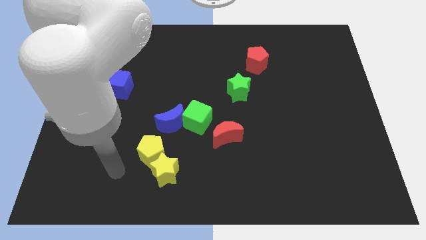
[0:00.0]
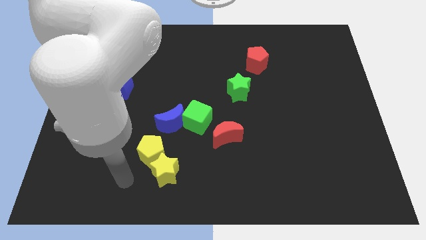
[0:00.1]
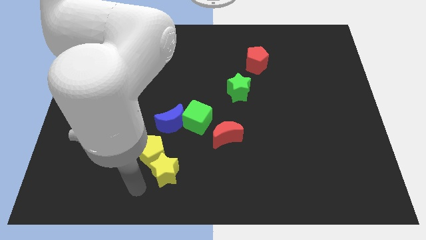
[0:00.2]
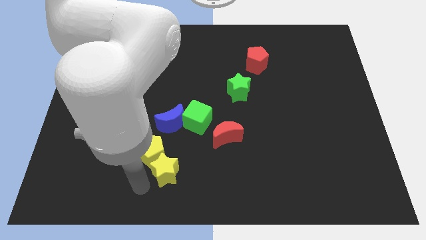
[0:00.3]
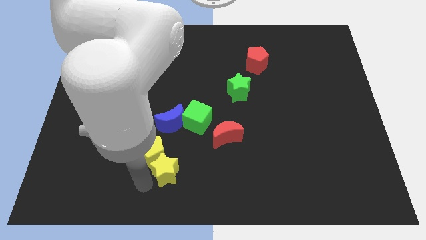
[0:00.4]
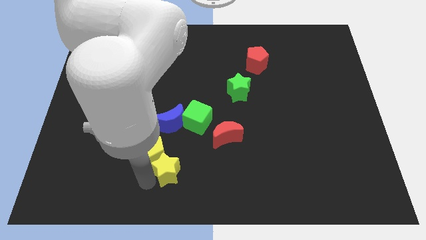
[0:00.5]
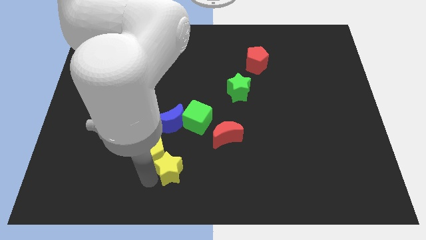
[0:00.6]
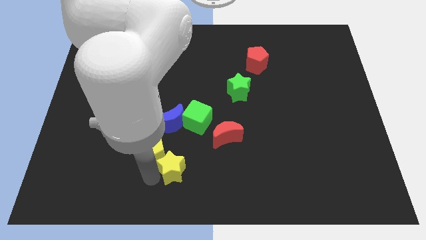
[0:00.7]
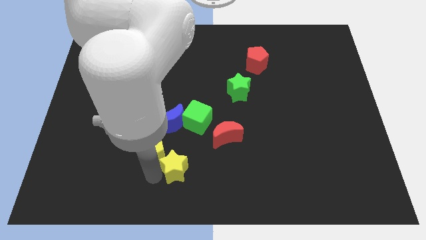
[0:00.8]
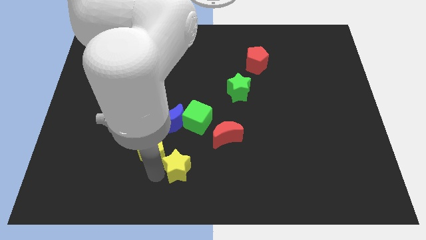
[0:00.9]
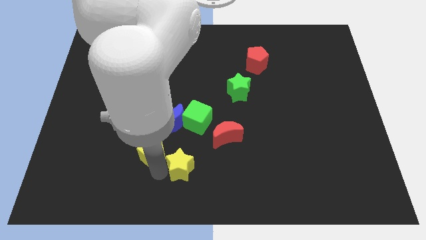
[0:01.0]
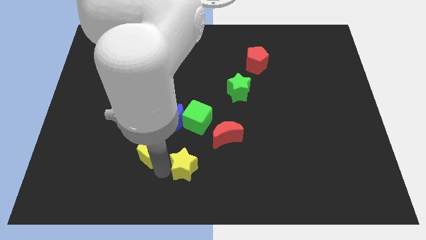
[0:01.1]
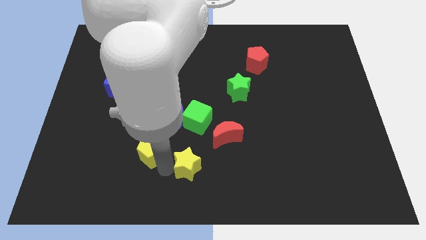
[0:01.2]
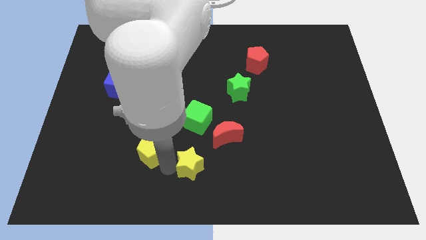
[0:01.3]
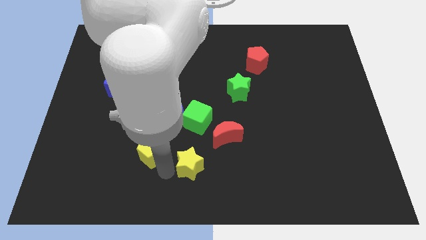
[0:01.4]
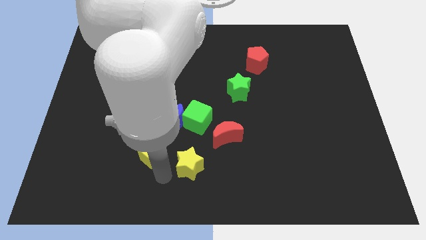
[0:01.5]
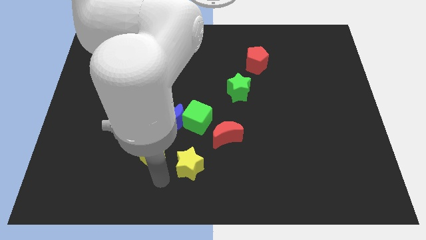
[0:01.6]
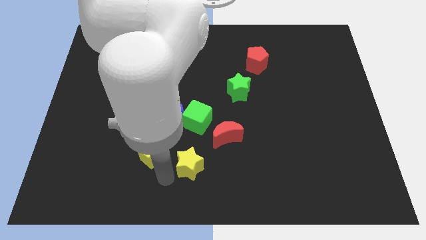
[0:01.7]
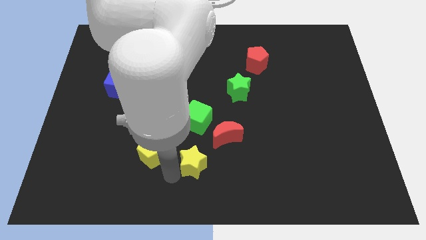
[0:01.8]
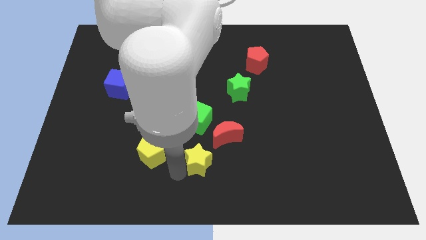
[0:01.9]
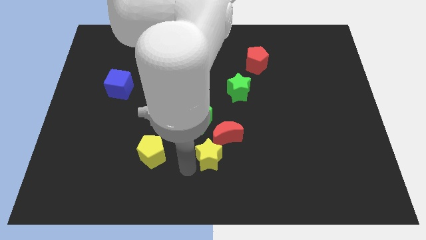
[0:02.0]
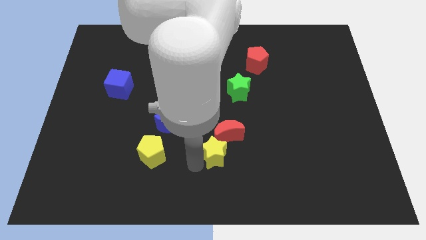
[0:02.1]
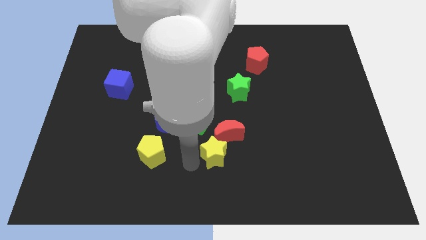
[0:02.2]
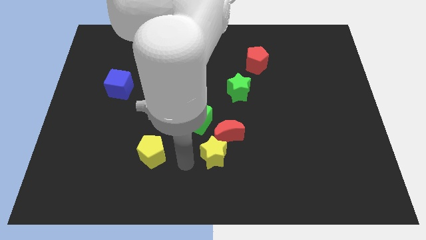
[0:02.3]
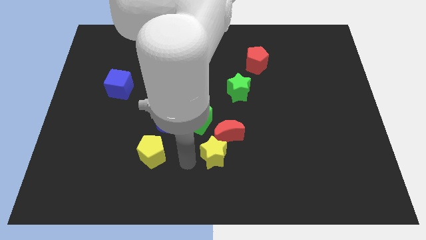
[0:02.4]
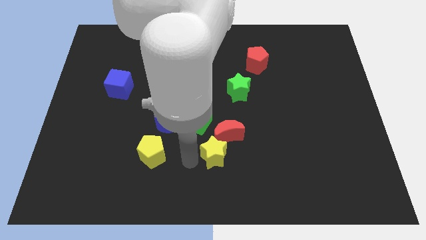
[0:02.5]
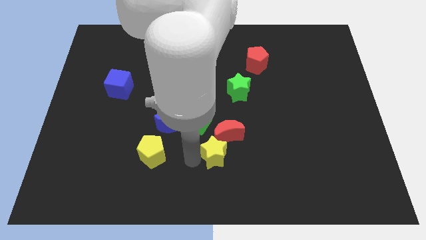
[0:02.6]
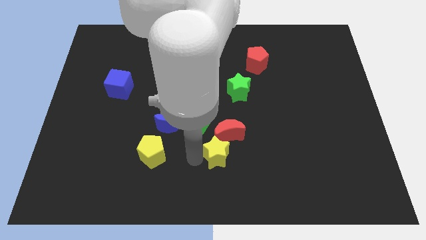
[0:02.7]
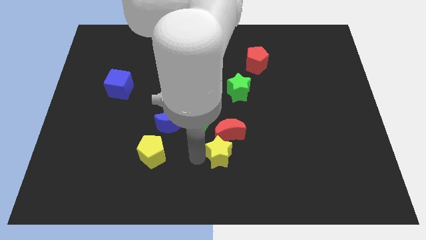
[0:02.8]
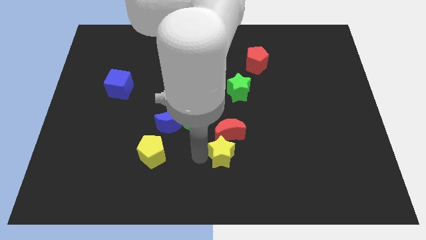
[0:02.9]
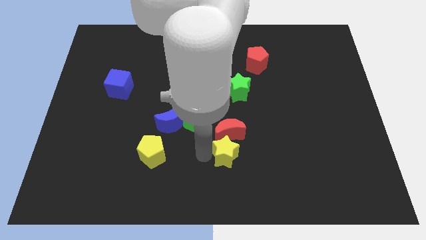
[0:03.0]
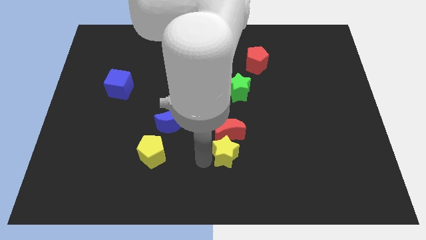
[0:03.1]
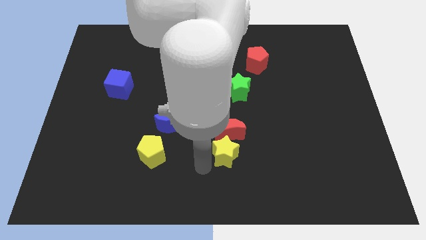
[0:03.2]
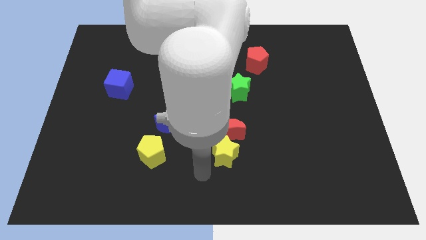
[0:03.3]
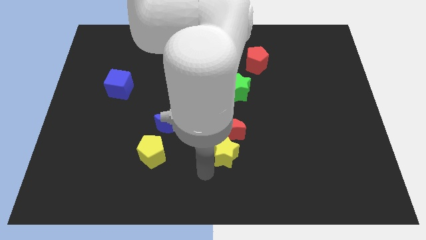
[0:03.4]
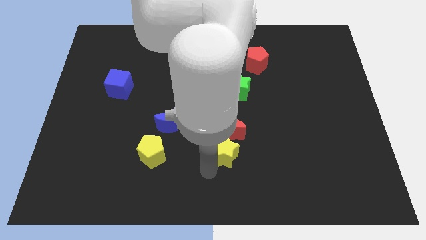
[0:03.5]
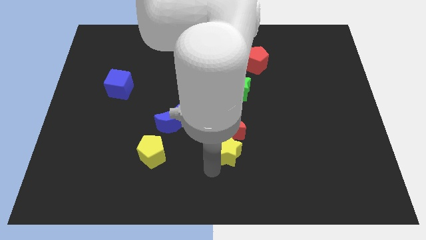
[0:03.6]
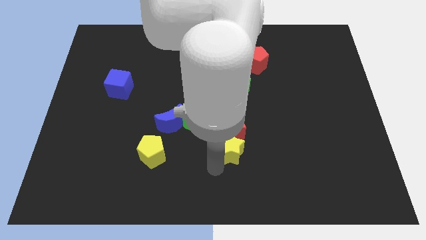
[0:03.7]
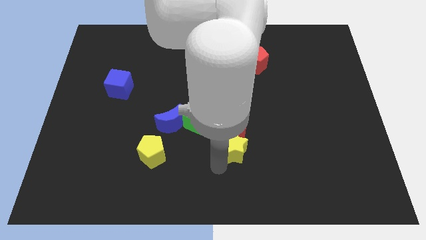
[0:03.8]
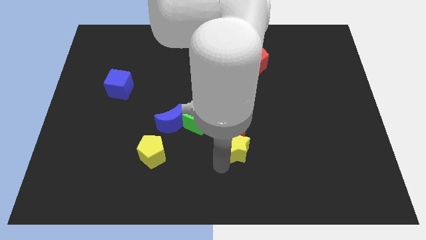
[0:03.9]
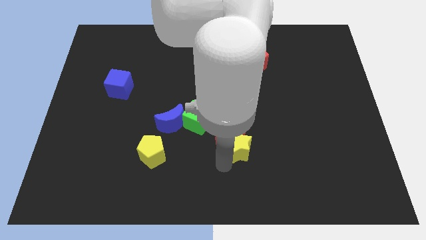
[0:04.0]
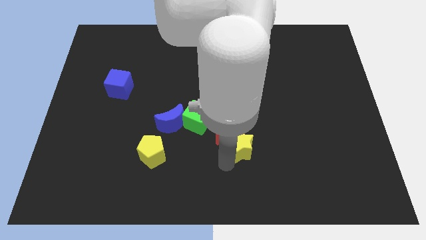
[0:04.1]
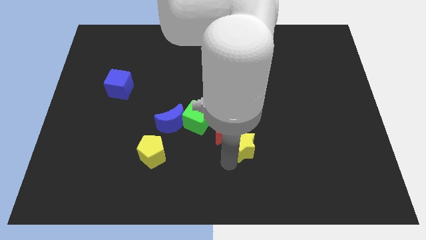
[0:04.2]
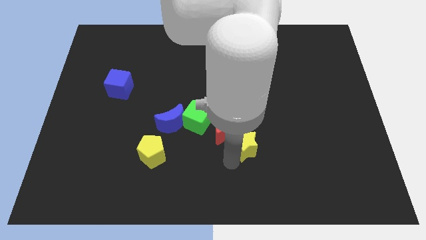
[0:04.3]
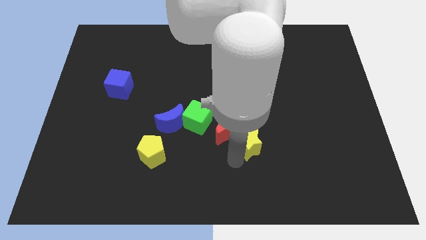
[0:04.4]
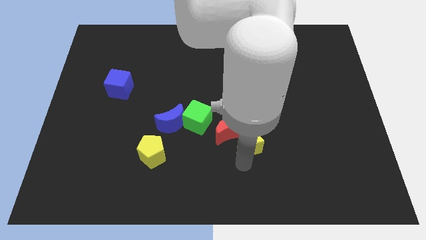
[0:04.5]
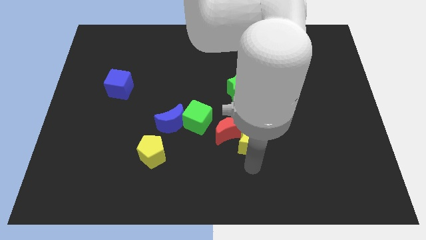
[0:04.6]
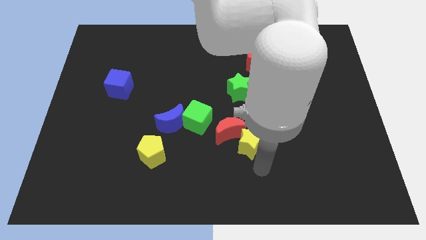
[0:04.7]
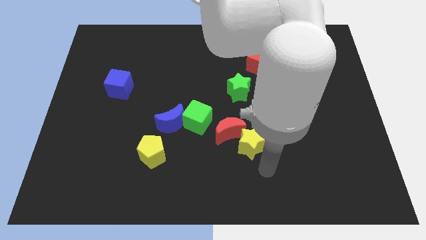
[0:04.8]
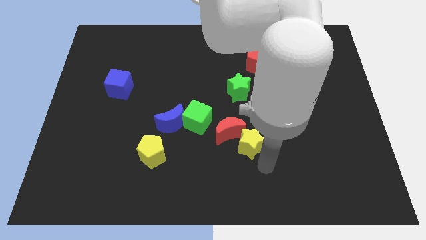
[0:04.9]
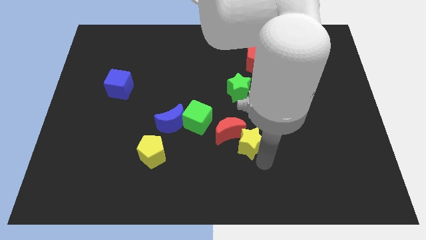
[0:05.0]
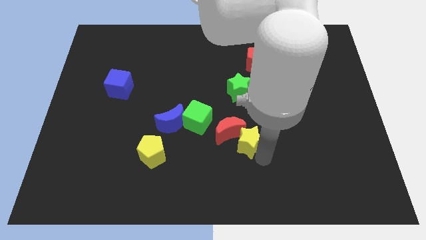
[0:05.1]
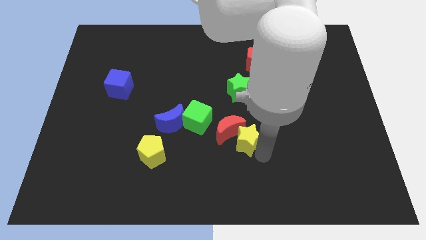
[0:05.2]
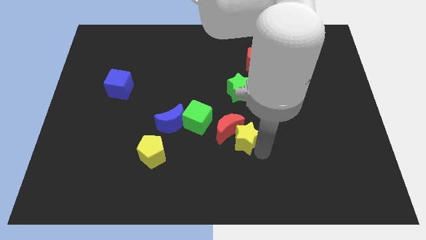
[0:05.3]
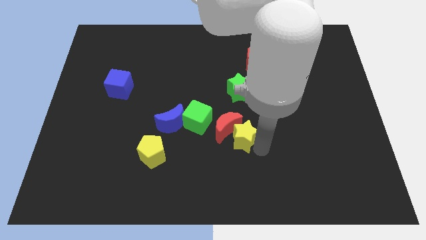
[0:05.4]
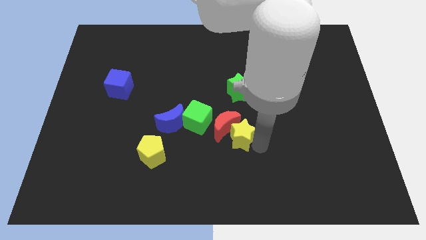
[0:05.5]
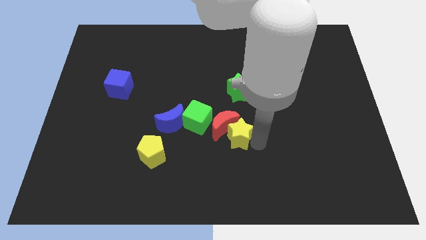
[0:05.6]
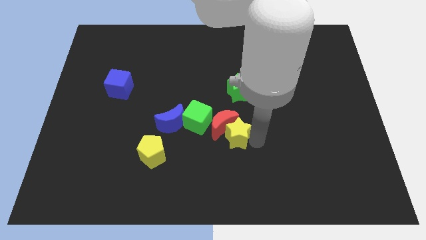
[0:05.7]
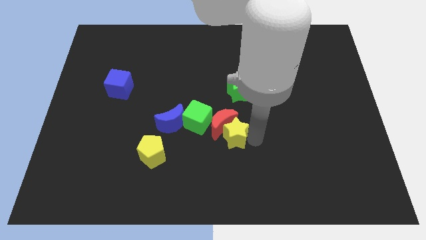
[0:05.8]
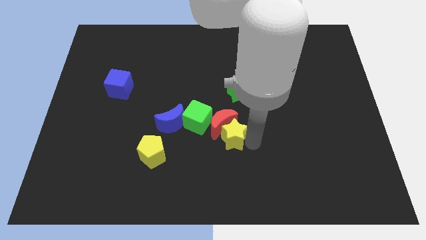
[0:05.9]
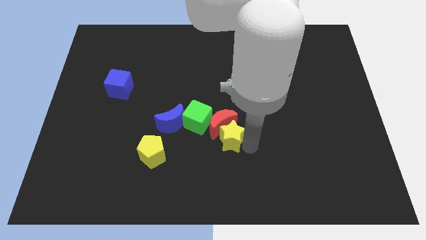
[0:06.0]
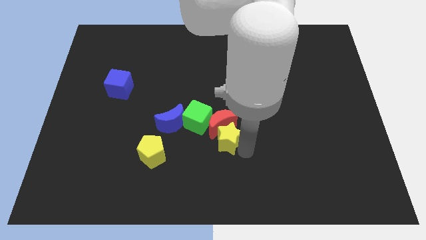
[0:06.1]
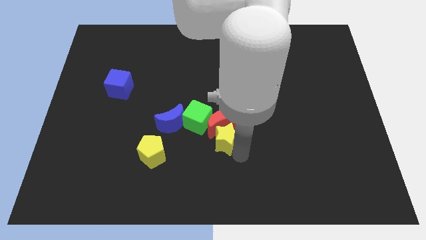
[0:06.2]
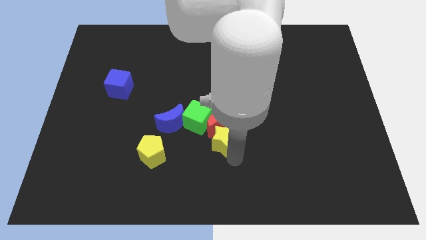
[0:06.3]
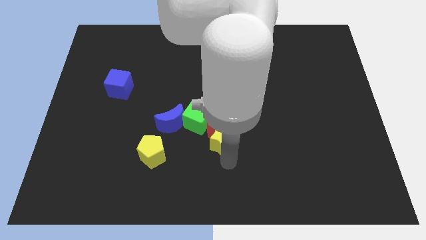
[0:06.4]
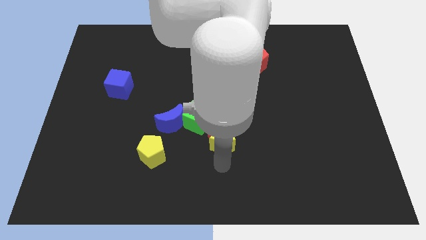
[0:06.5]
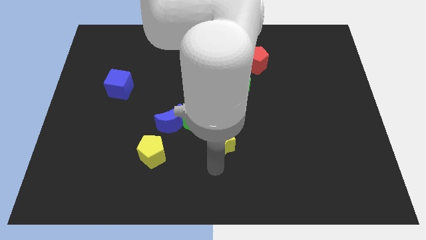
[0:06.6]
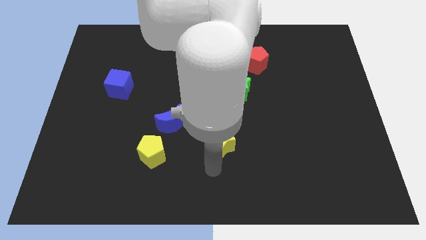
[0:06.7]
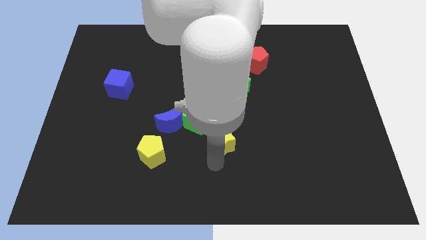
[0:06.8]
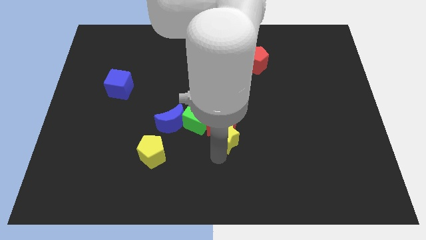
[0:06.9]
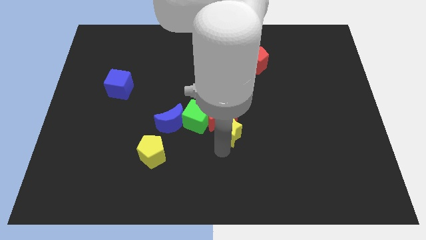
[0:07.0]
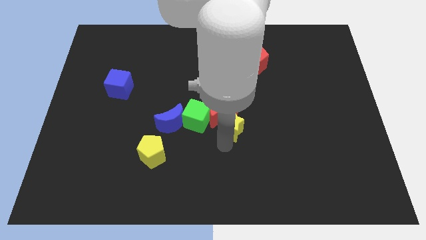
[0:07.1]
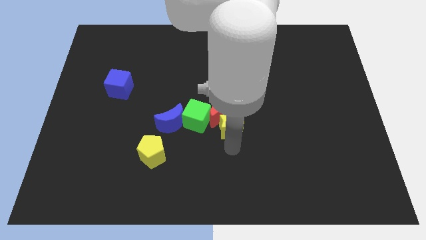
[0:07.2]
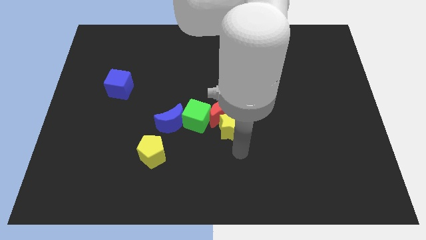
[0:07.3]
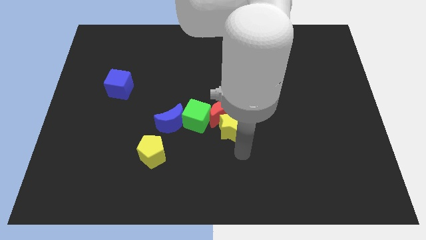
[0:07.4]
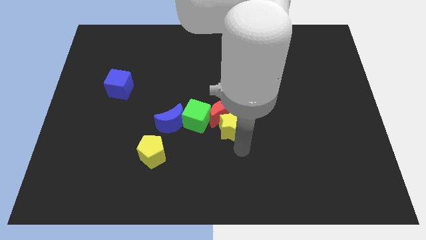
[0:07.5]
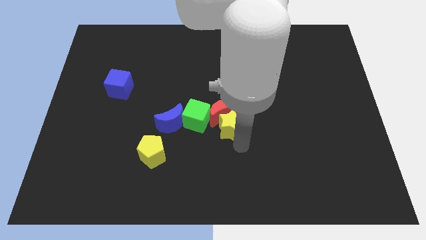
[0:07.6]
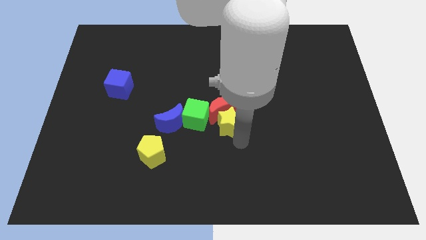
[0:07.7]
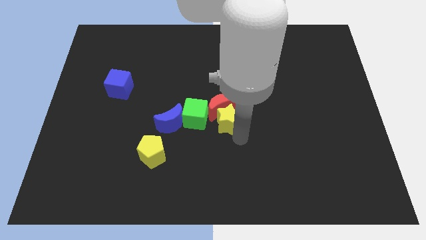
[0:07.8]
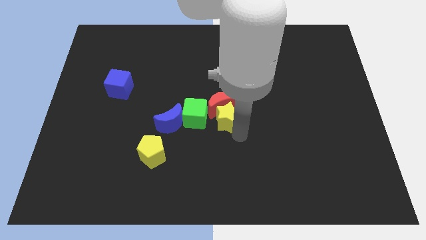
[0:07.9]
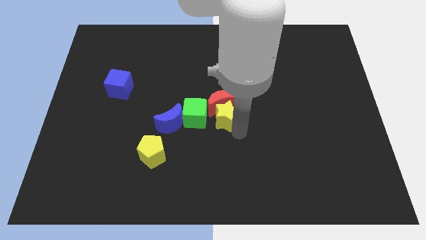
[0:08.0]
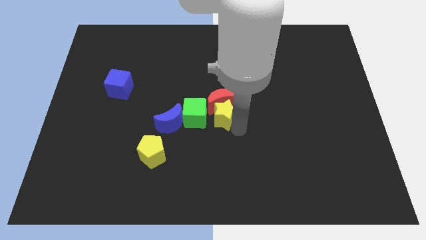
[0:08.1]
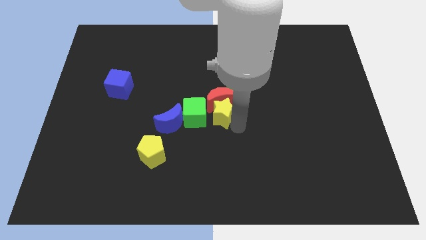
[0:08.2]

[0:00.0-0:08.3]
push the yellow star diagonally up and to the right of the green cube
